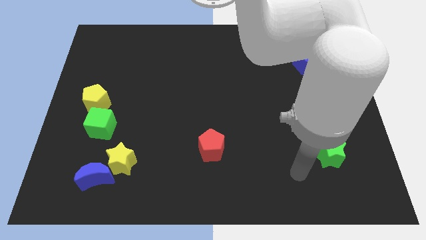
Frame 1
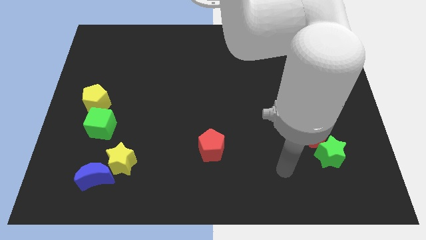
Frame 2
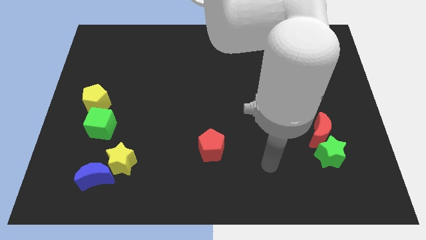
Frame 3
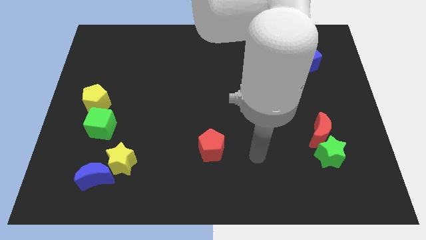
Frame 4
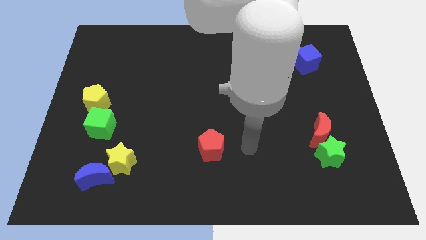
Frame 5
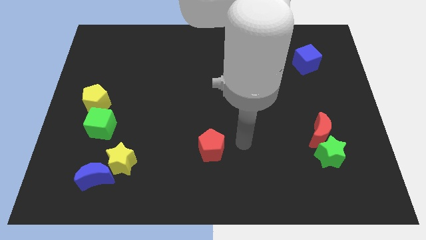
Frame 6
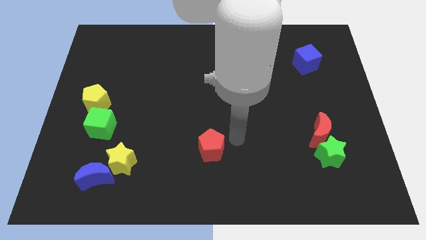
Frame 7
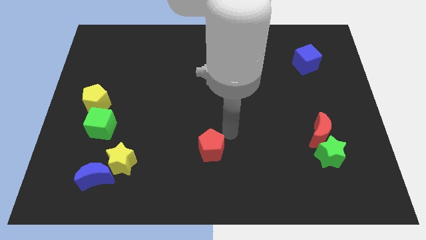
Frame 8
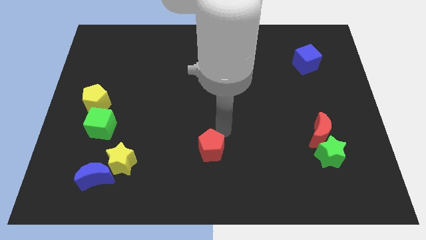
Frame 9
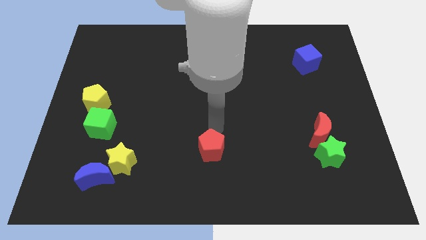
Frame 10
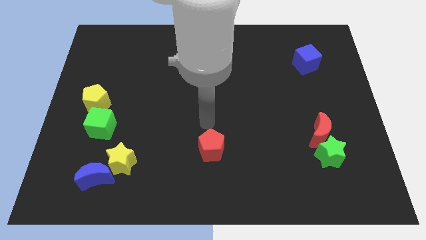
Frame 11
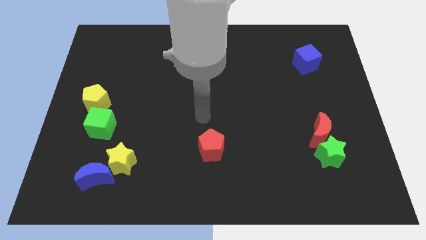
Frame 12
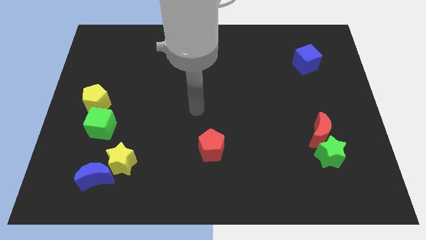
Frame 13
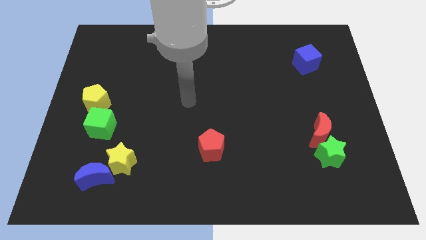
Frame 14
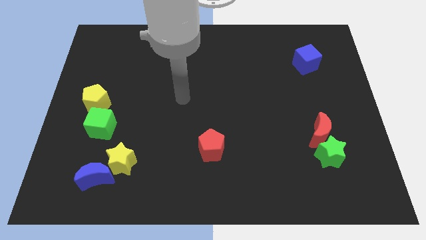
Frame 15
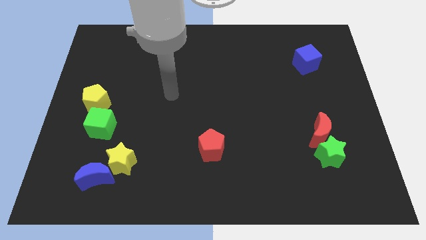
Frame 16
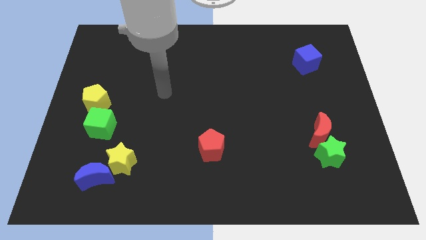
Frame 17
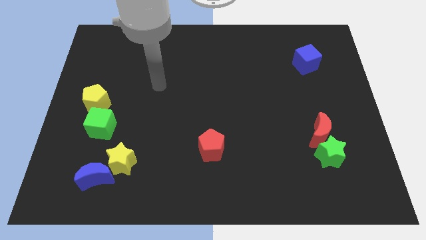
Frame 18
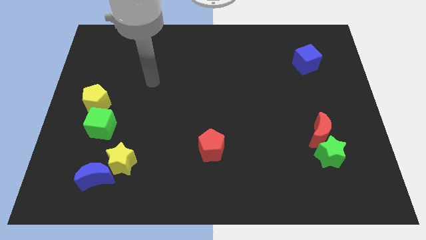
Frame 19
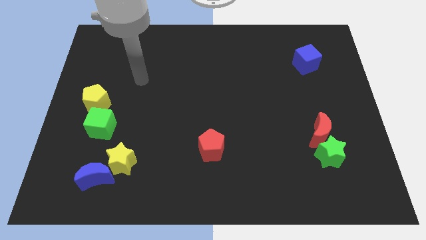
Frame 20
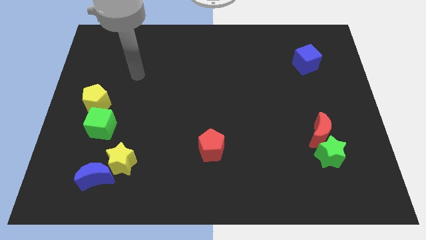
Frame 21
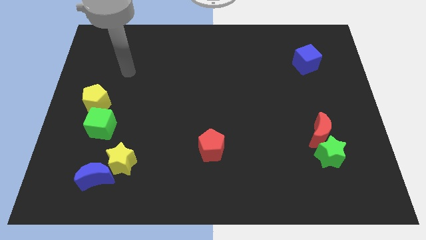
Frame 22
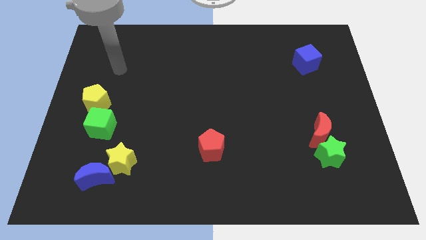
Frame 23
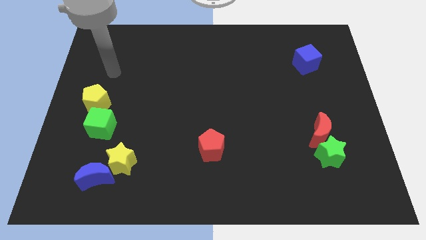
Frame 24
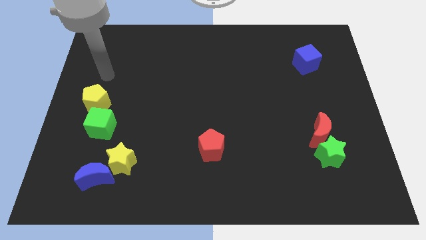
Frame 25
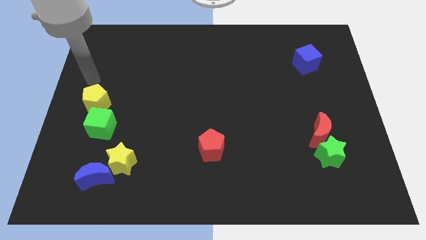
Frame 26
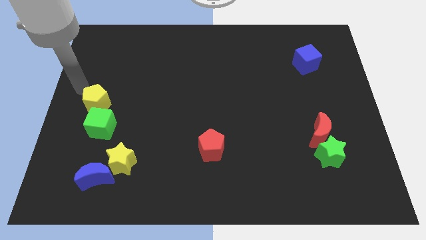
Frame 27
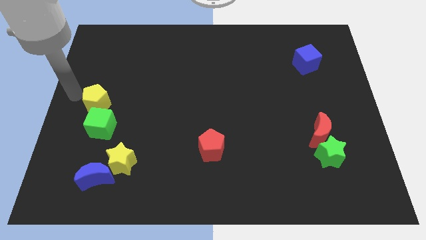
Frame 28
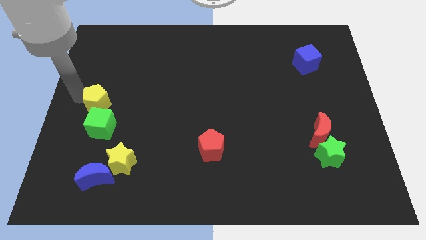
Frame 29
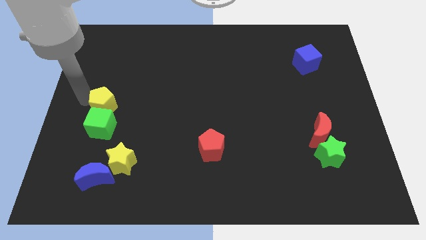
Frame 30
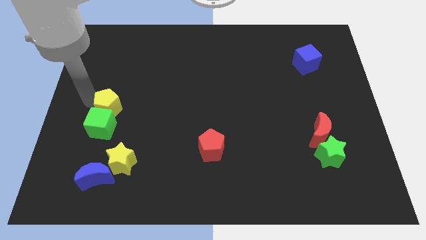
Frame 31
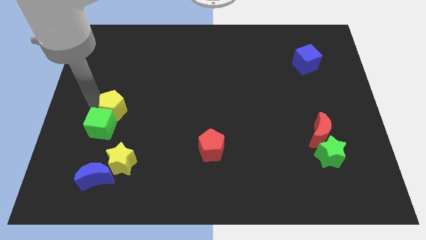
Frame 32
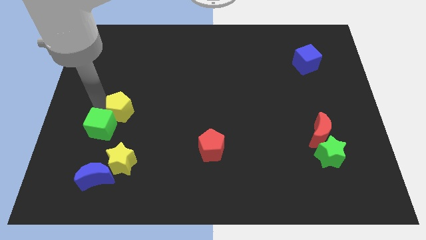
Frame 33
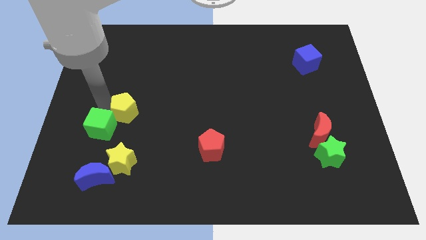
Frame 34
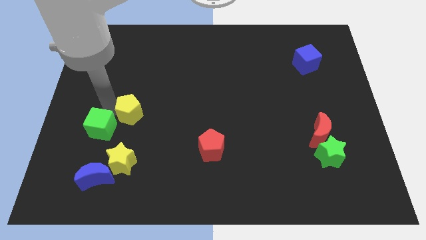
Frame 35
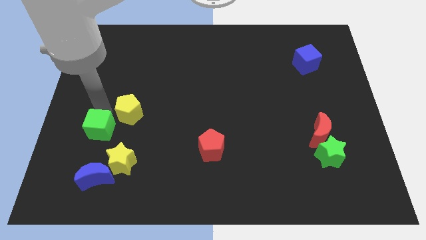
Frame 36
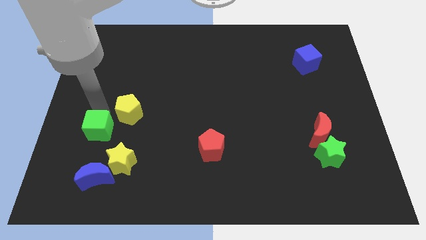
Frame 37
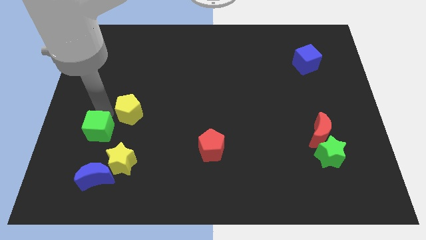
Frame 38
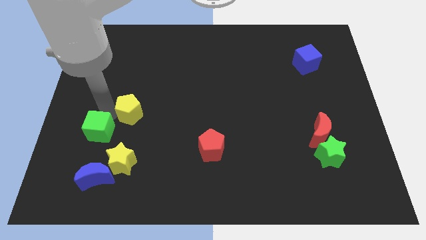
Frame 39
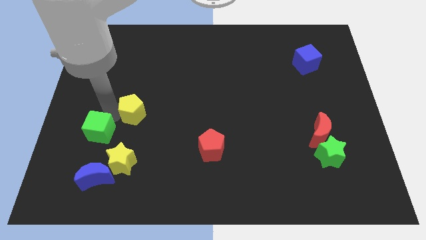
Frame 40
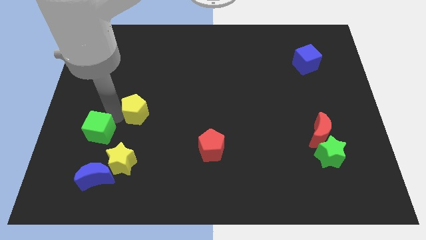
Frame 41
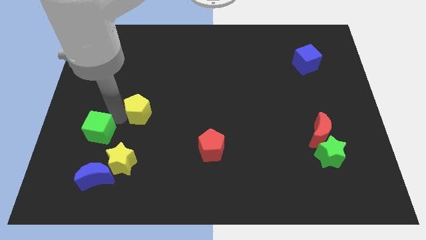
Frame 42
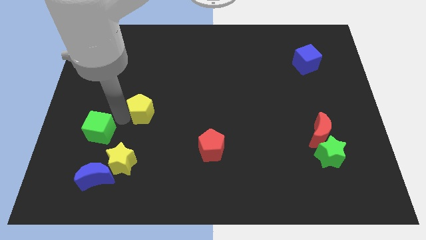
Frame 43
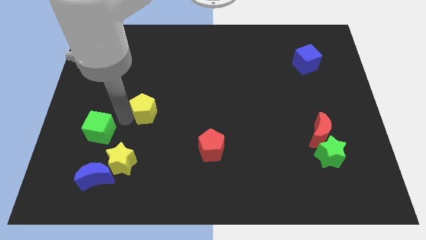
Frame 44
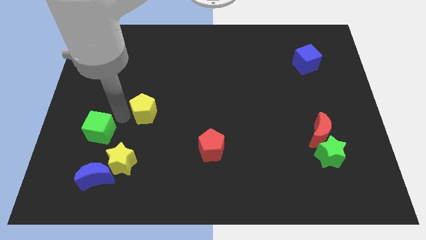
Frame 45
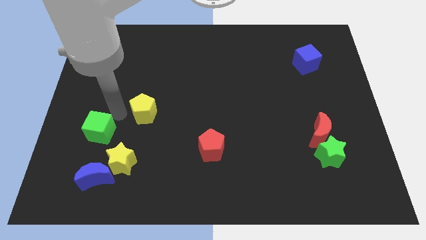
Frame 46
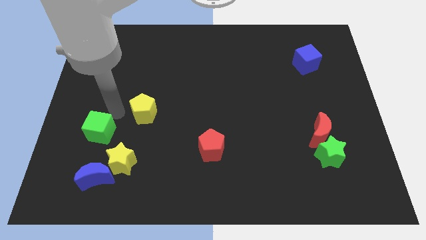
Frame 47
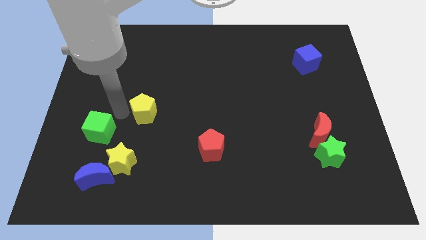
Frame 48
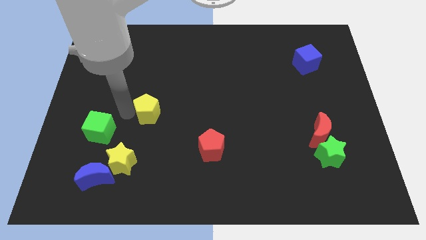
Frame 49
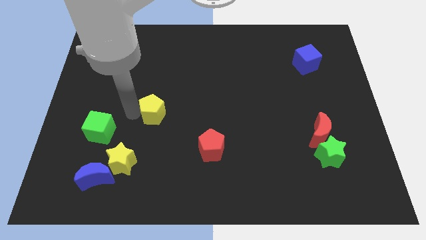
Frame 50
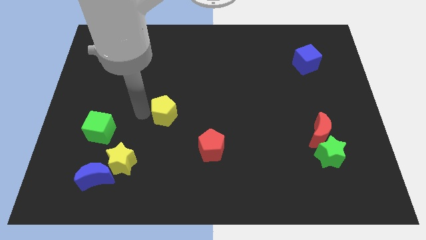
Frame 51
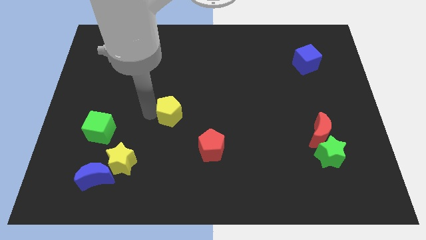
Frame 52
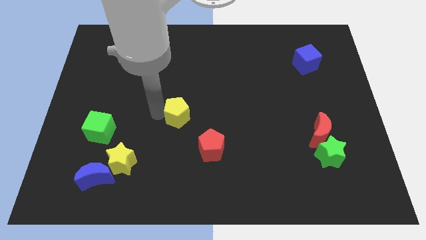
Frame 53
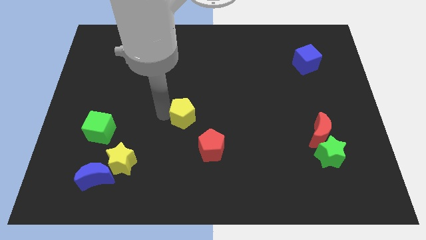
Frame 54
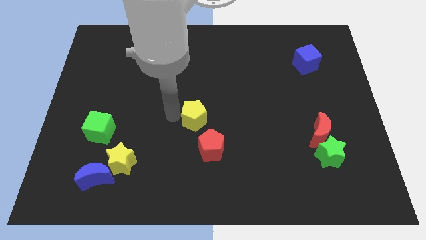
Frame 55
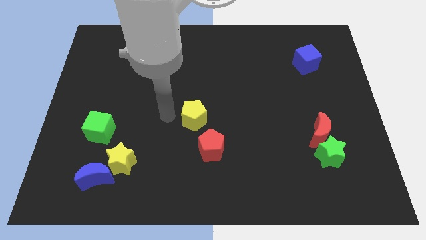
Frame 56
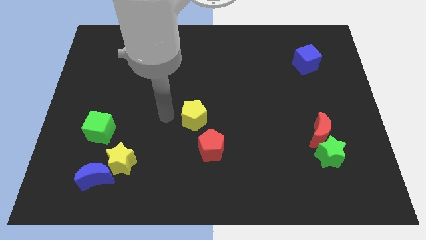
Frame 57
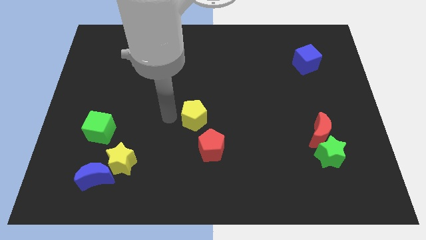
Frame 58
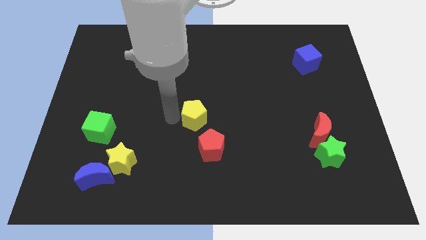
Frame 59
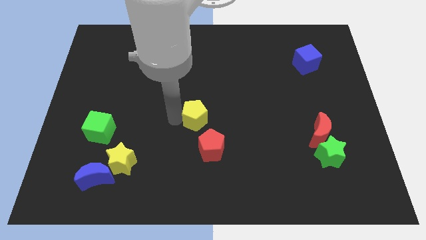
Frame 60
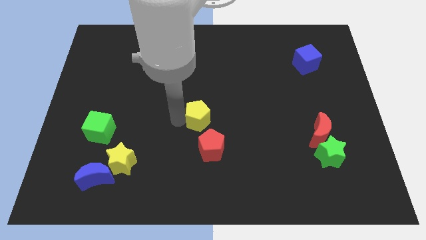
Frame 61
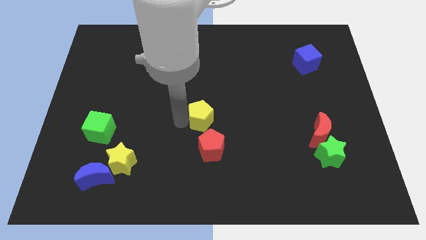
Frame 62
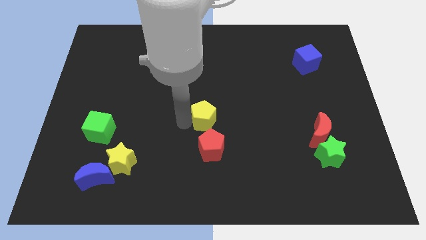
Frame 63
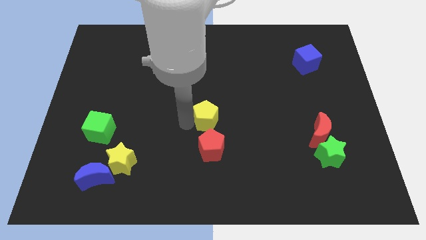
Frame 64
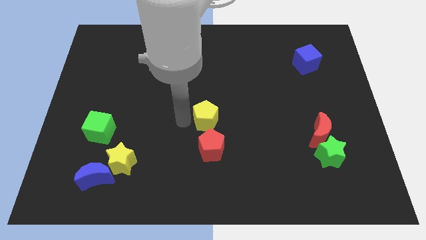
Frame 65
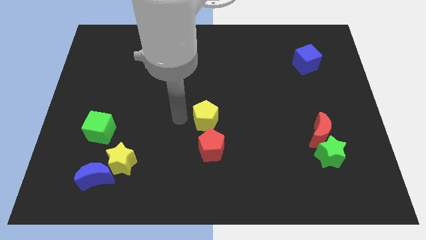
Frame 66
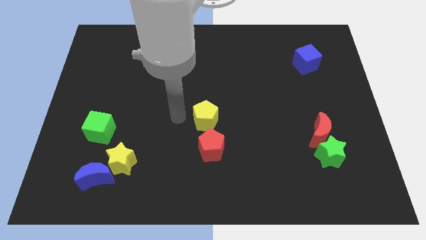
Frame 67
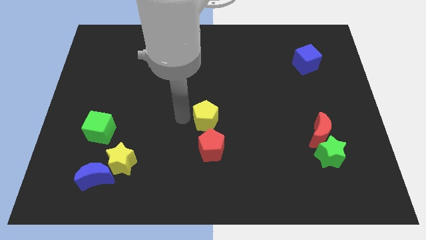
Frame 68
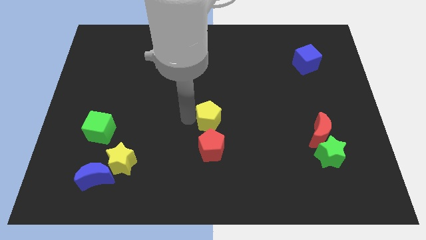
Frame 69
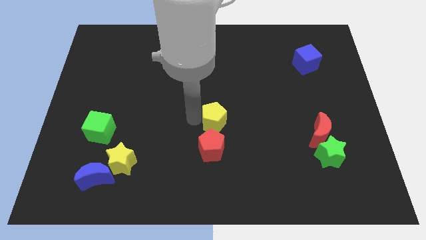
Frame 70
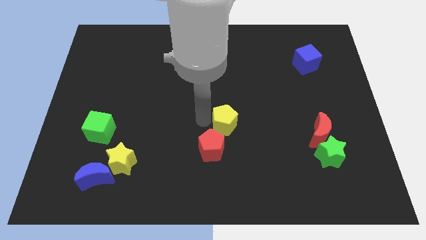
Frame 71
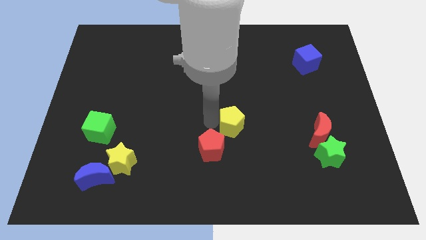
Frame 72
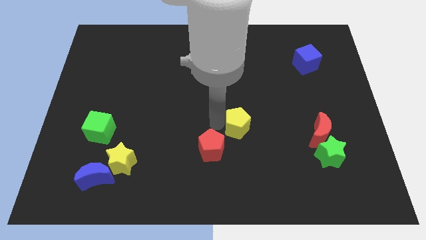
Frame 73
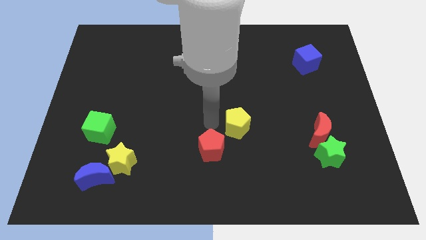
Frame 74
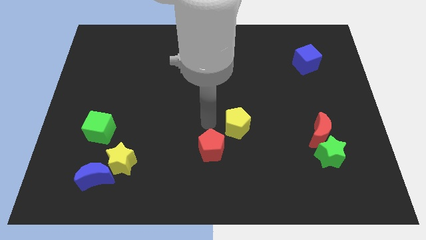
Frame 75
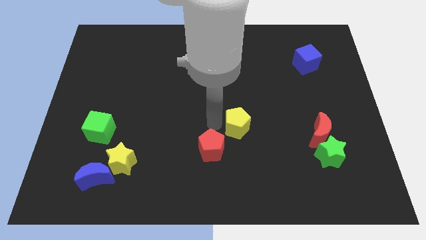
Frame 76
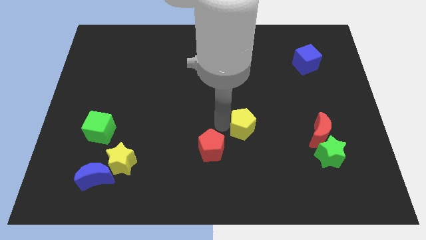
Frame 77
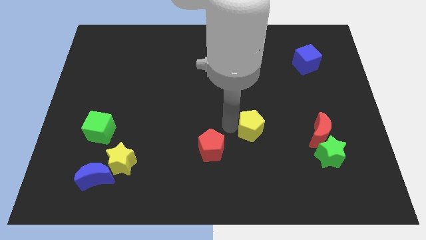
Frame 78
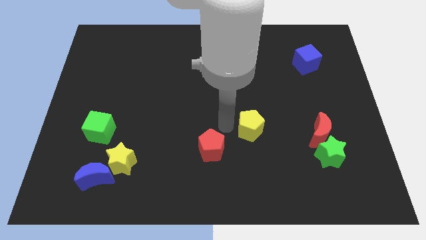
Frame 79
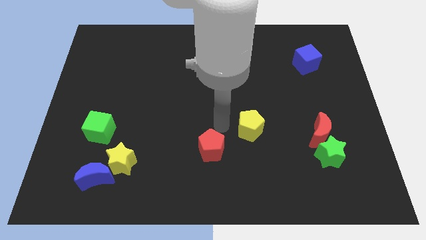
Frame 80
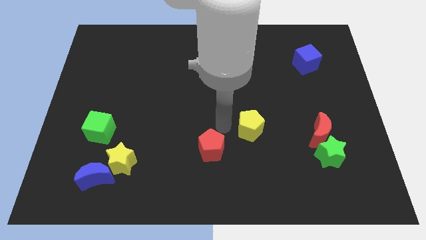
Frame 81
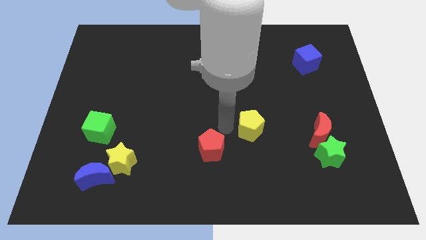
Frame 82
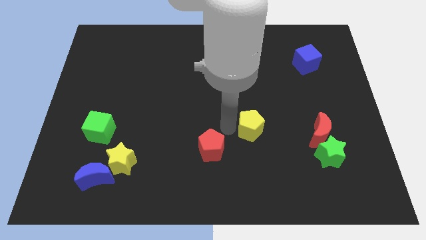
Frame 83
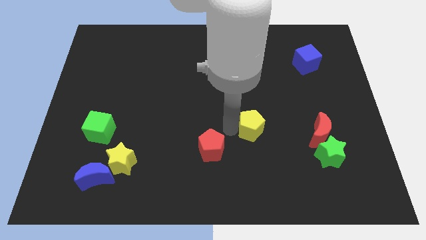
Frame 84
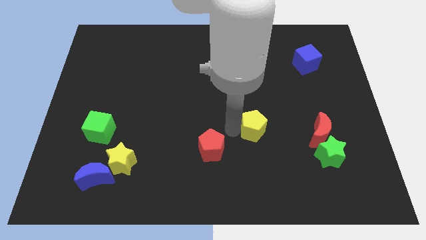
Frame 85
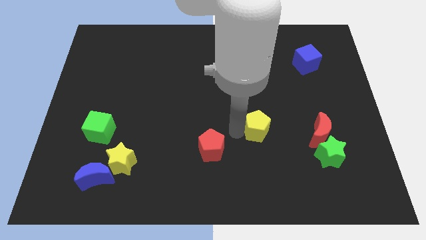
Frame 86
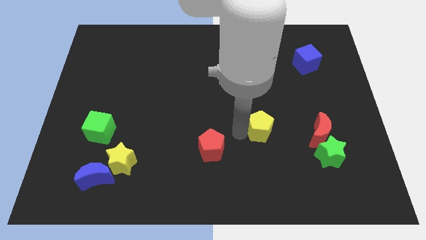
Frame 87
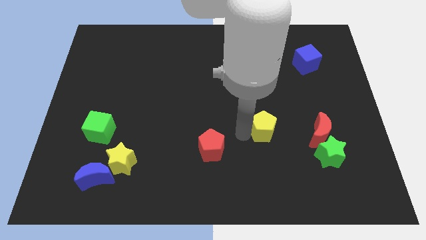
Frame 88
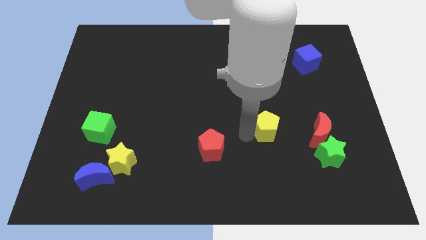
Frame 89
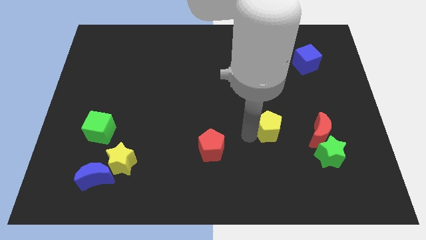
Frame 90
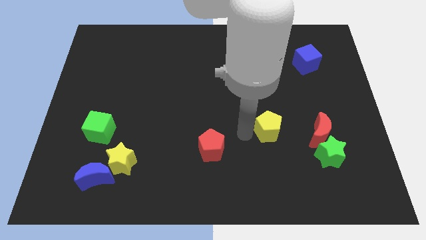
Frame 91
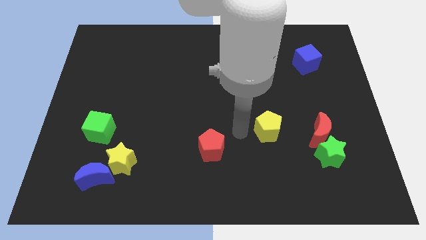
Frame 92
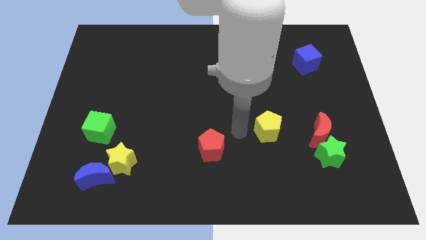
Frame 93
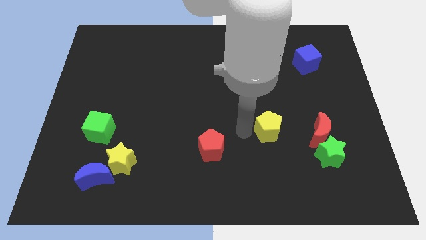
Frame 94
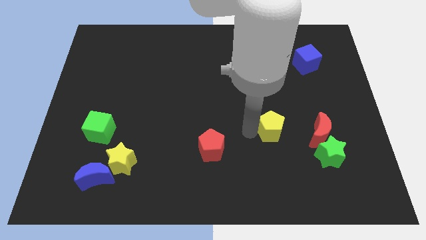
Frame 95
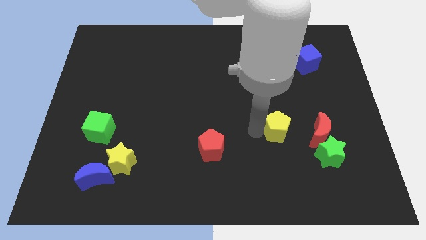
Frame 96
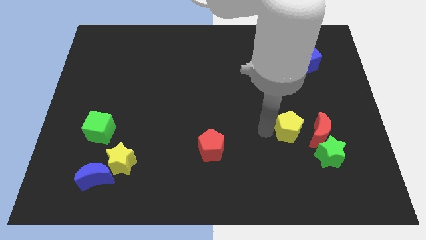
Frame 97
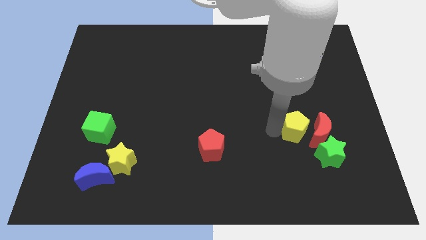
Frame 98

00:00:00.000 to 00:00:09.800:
put the yellow pentagon next to the red moon
